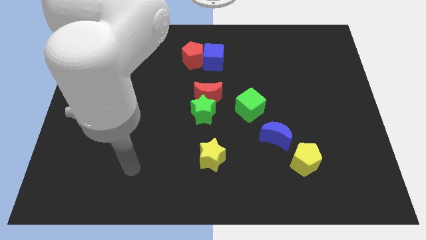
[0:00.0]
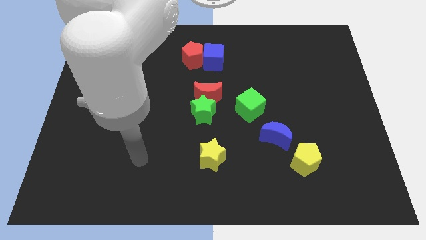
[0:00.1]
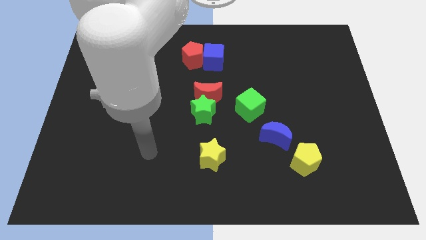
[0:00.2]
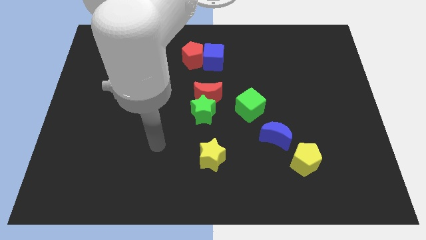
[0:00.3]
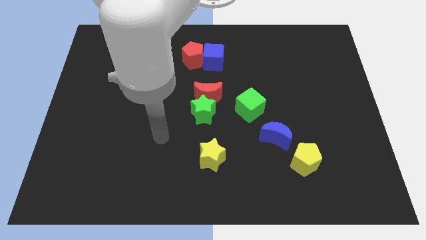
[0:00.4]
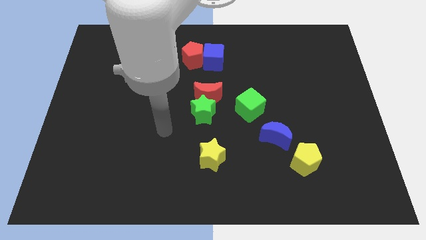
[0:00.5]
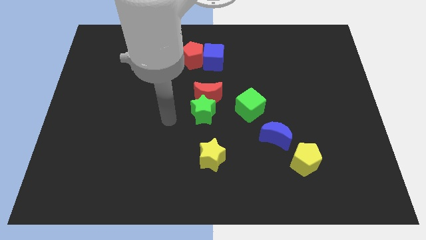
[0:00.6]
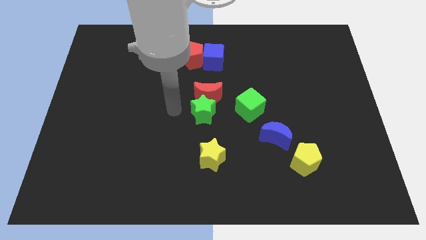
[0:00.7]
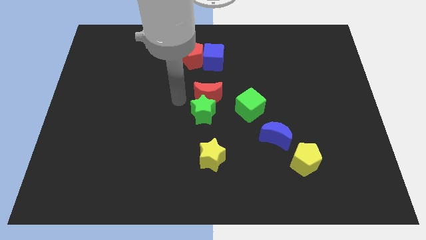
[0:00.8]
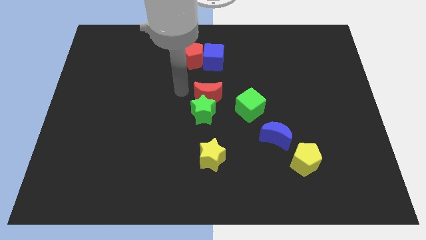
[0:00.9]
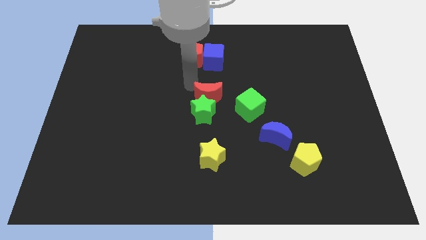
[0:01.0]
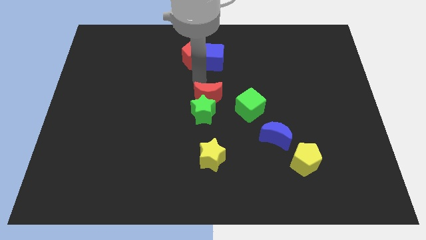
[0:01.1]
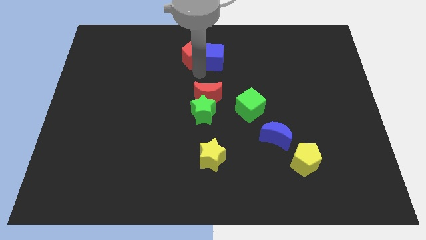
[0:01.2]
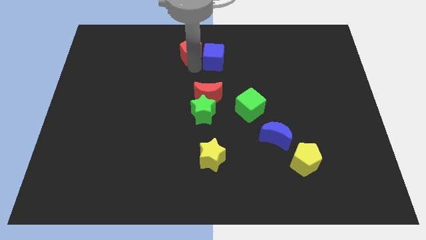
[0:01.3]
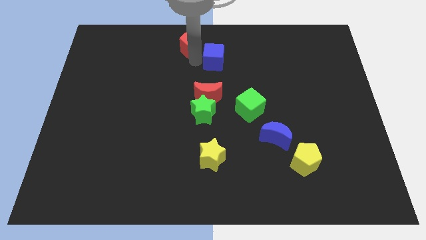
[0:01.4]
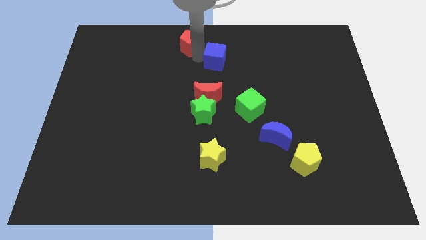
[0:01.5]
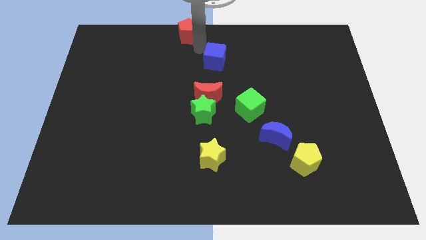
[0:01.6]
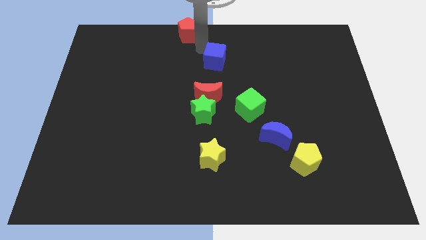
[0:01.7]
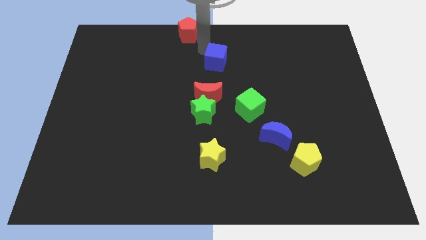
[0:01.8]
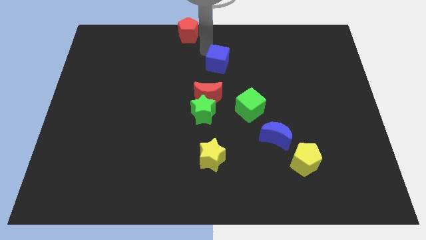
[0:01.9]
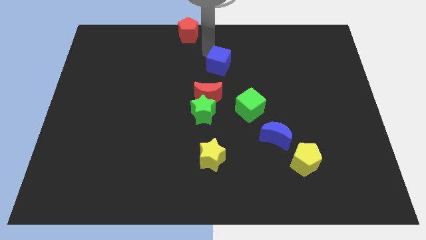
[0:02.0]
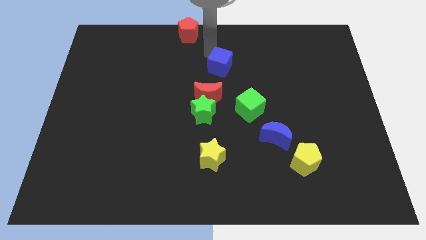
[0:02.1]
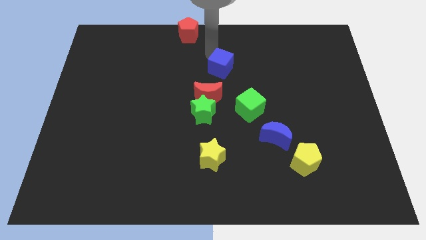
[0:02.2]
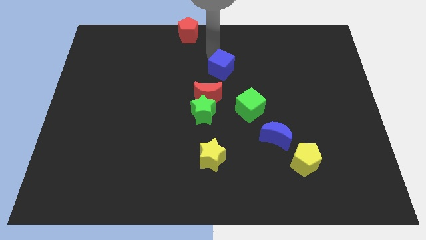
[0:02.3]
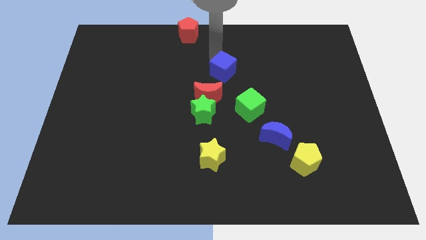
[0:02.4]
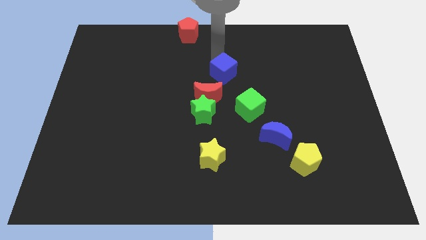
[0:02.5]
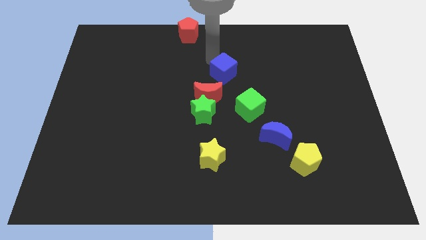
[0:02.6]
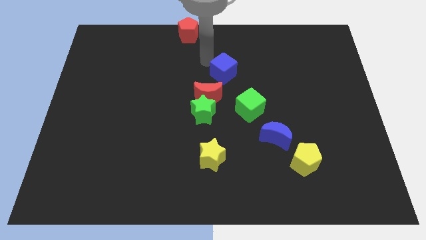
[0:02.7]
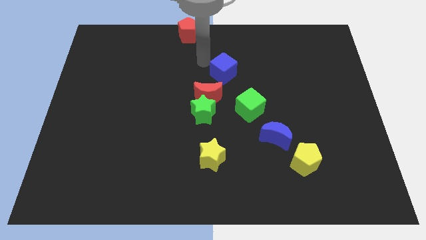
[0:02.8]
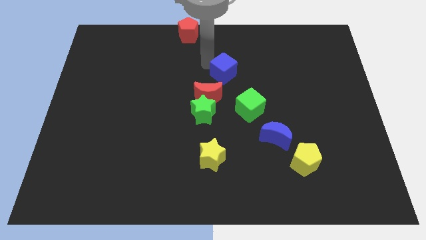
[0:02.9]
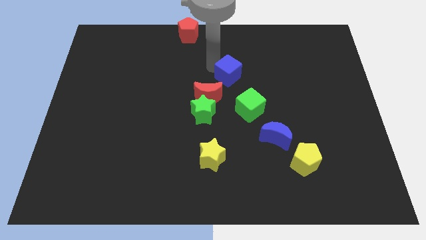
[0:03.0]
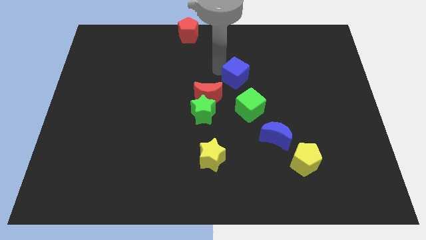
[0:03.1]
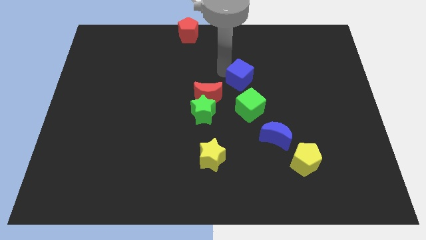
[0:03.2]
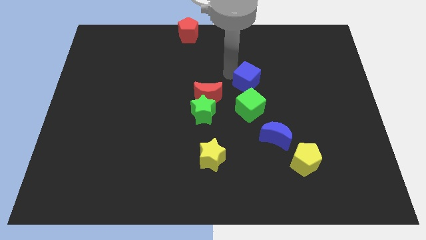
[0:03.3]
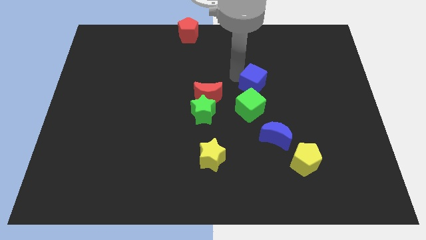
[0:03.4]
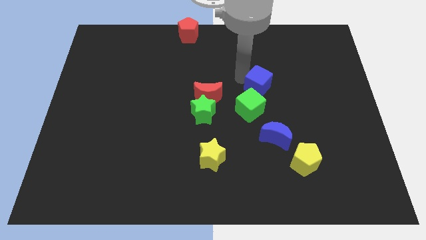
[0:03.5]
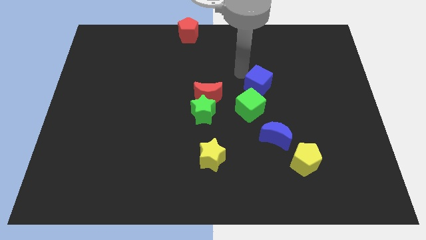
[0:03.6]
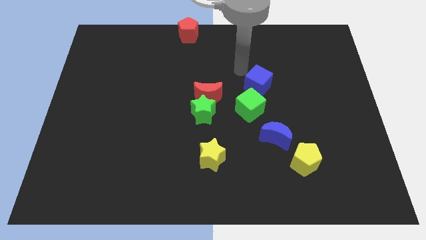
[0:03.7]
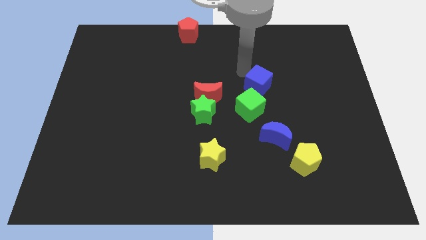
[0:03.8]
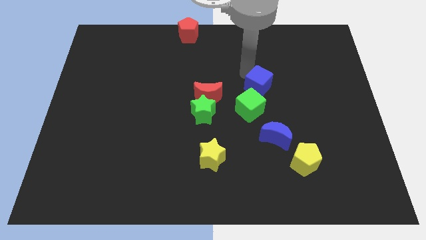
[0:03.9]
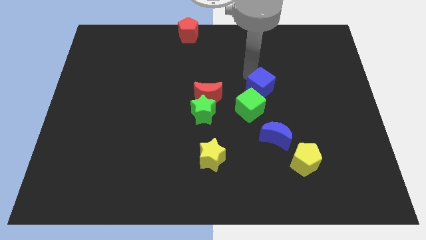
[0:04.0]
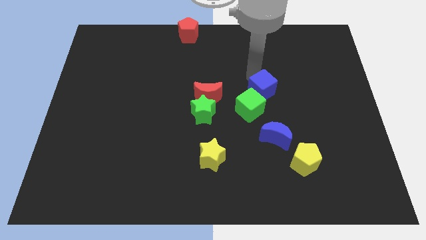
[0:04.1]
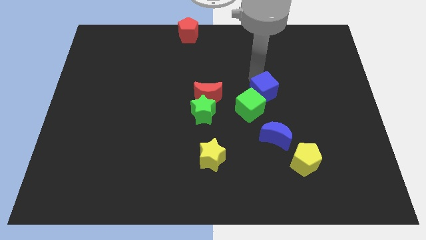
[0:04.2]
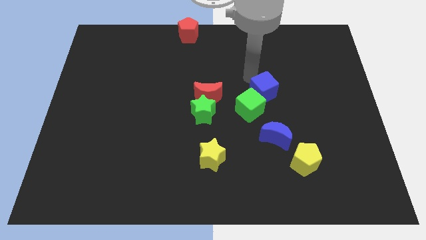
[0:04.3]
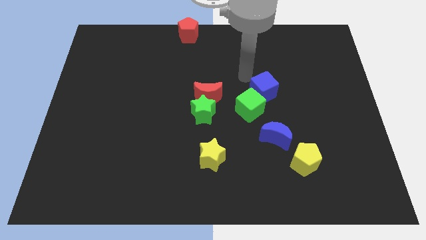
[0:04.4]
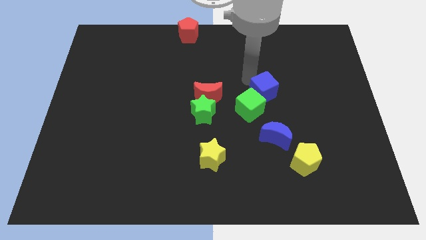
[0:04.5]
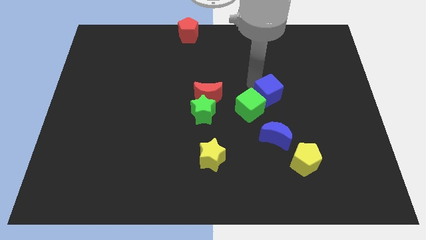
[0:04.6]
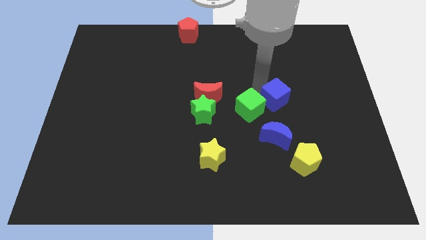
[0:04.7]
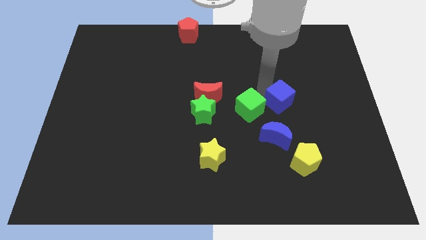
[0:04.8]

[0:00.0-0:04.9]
move the blue cube down and right

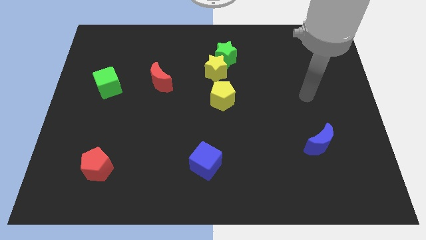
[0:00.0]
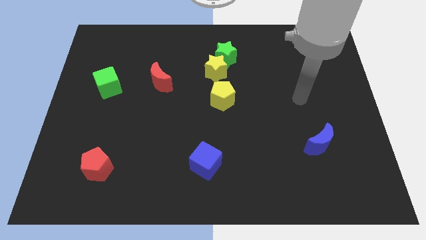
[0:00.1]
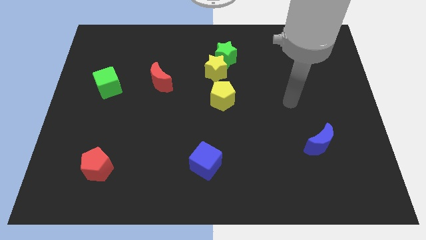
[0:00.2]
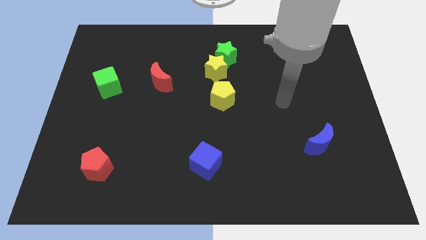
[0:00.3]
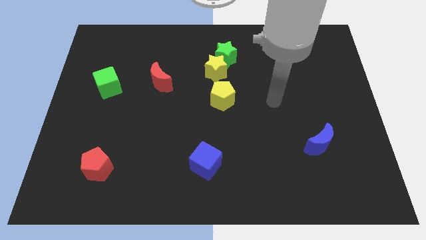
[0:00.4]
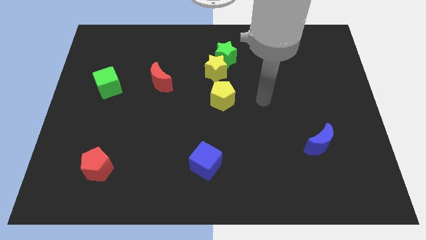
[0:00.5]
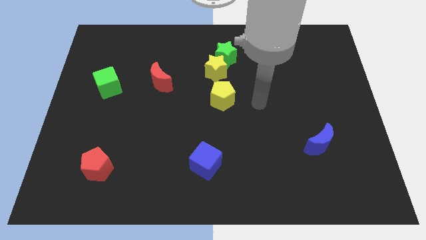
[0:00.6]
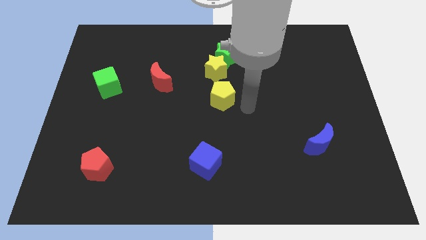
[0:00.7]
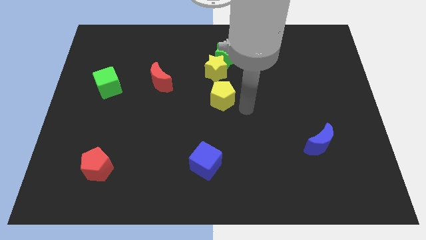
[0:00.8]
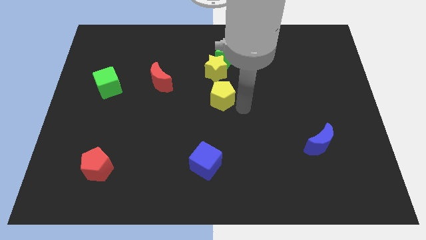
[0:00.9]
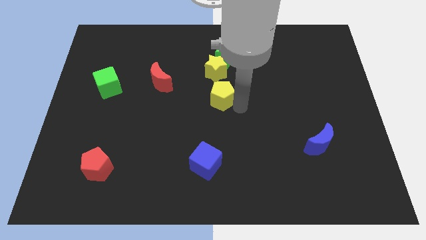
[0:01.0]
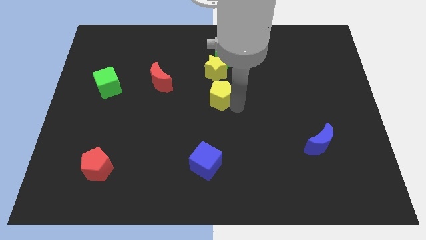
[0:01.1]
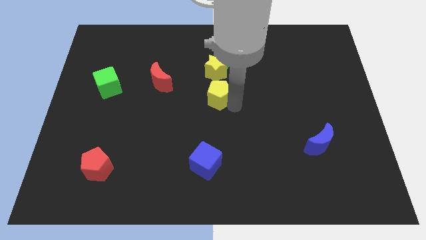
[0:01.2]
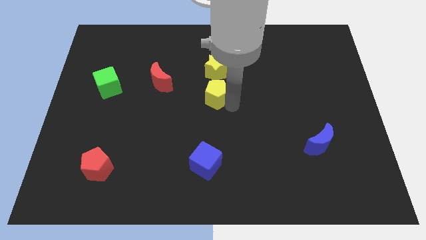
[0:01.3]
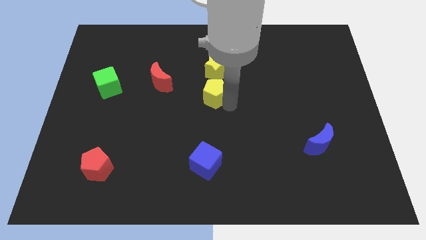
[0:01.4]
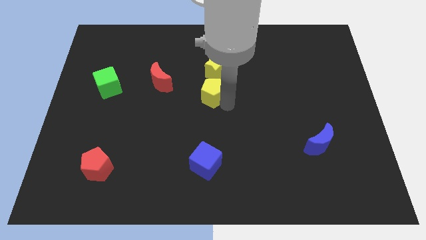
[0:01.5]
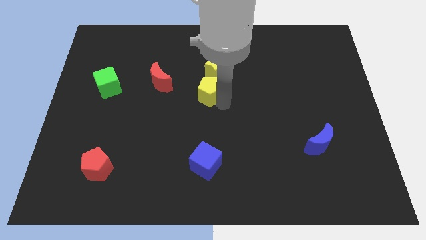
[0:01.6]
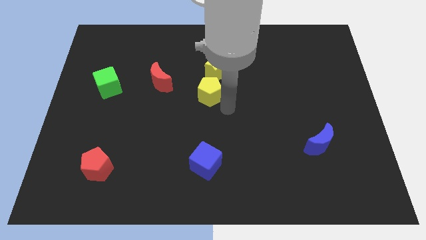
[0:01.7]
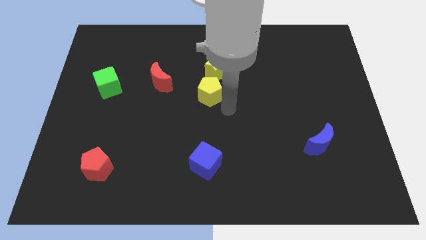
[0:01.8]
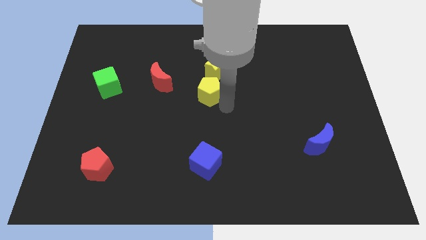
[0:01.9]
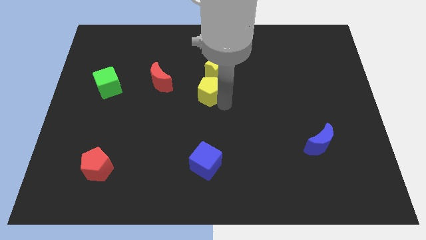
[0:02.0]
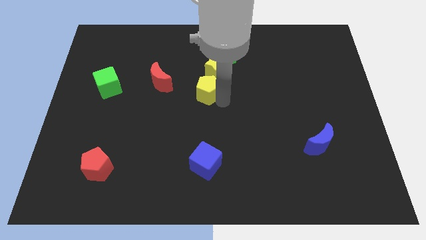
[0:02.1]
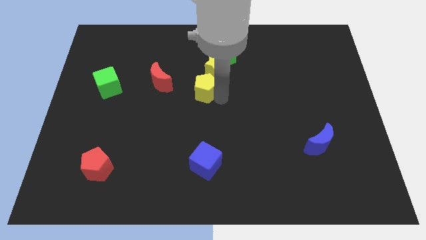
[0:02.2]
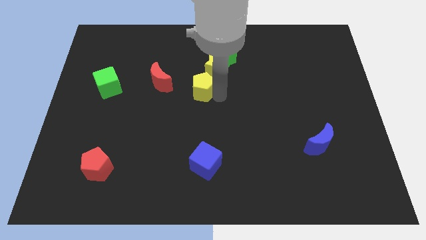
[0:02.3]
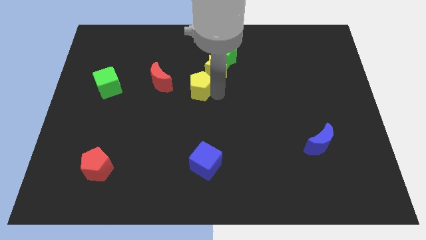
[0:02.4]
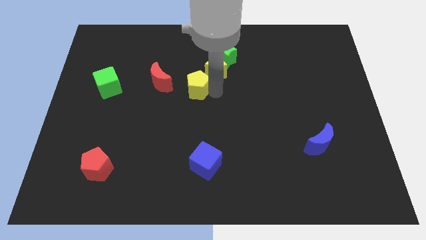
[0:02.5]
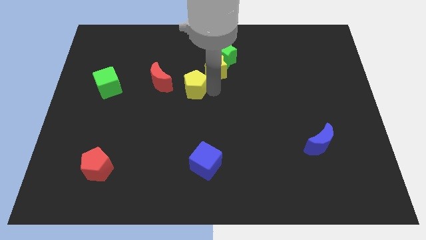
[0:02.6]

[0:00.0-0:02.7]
slightly push the yellow pentagon diagonally up and left

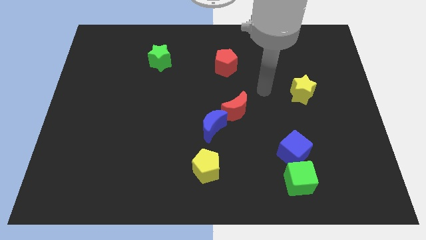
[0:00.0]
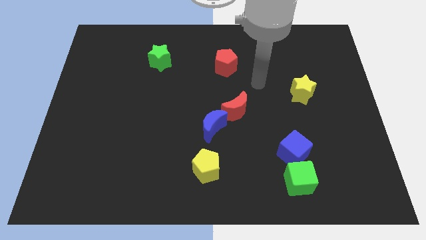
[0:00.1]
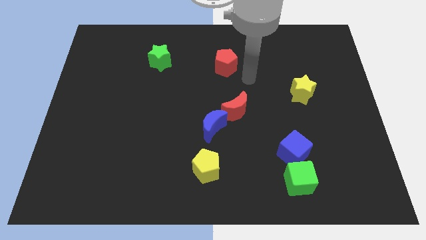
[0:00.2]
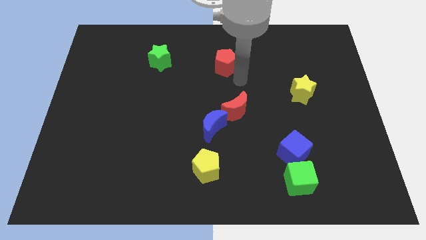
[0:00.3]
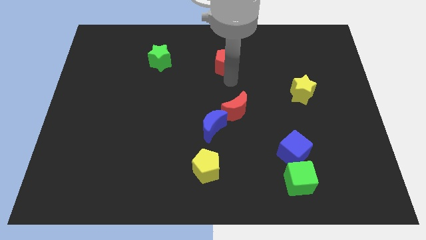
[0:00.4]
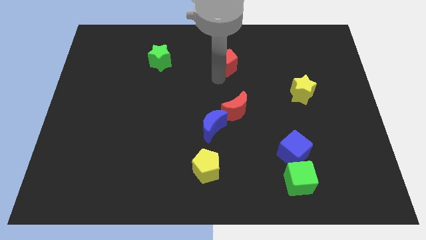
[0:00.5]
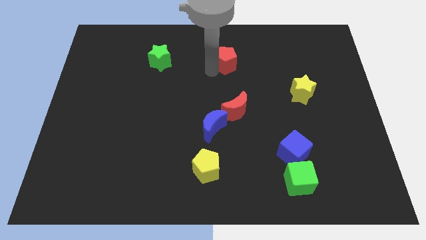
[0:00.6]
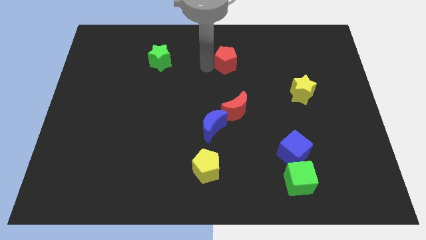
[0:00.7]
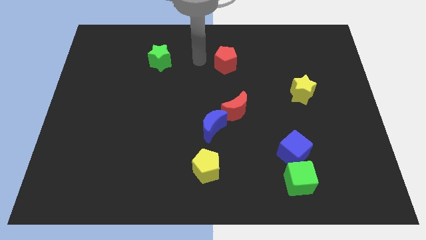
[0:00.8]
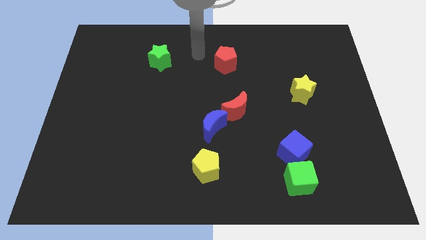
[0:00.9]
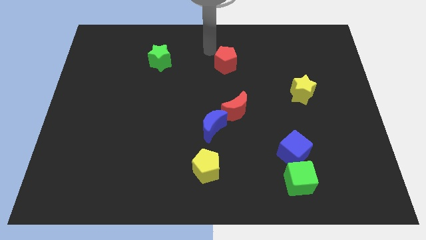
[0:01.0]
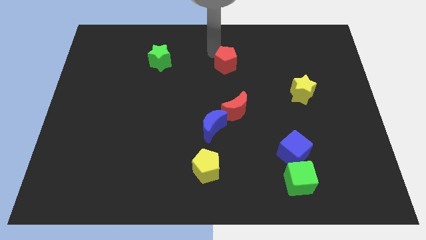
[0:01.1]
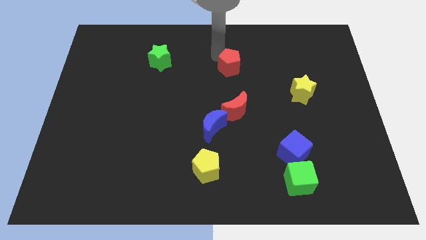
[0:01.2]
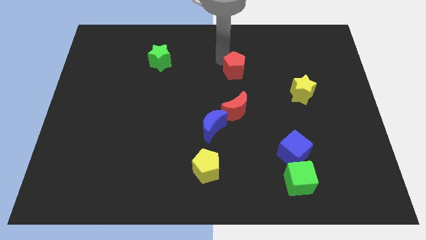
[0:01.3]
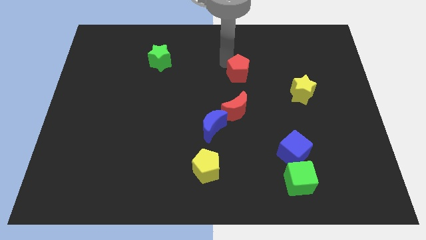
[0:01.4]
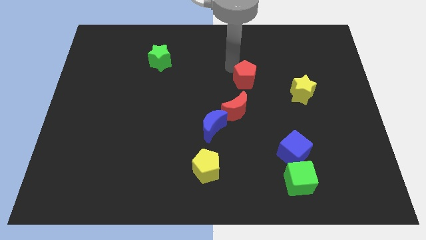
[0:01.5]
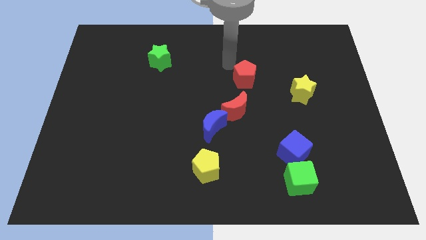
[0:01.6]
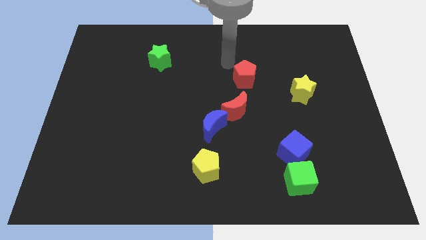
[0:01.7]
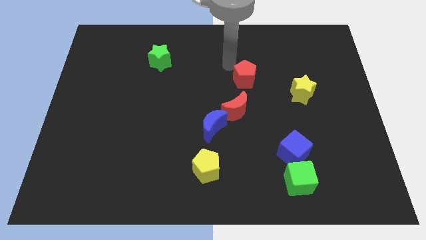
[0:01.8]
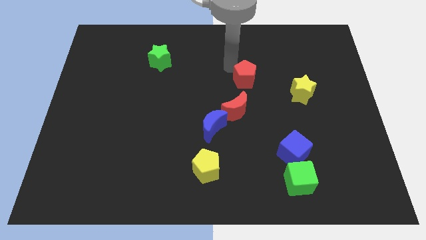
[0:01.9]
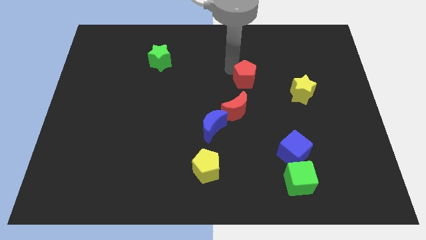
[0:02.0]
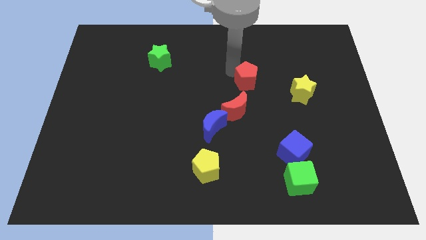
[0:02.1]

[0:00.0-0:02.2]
move the red pentagon downwards and right a bit
